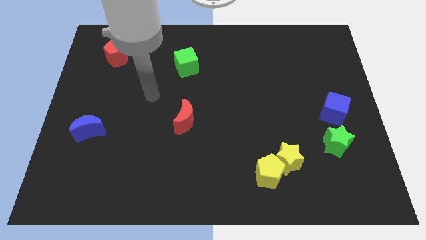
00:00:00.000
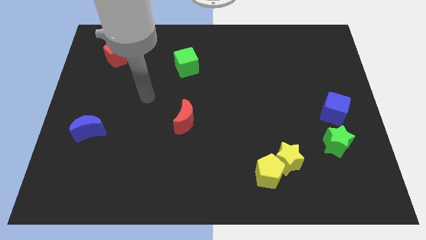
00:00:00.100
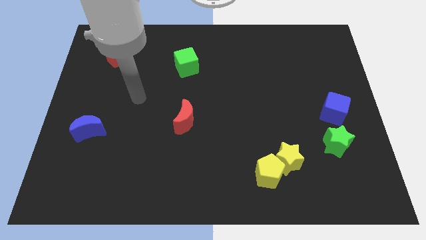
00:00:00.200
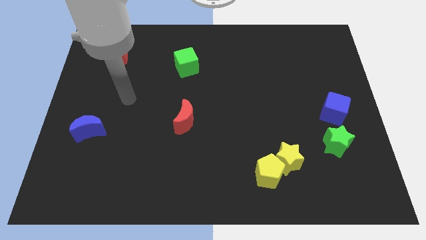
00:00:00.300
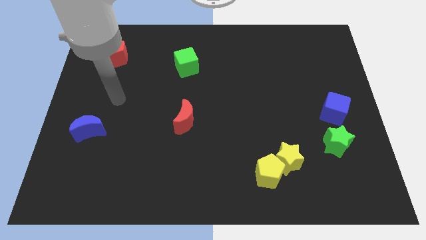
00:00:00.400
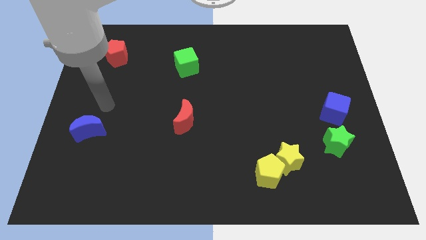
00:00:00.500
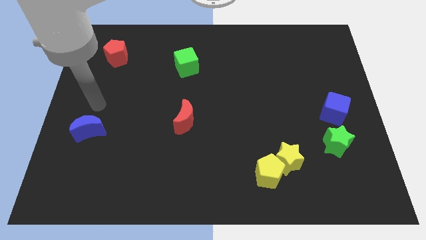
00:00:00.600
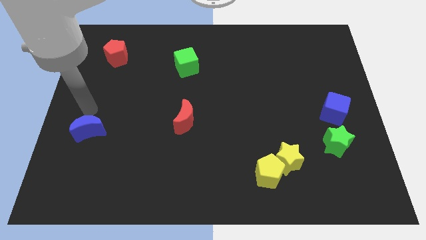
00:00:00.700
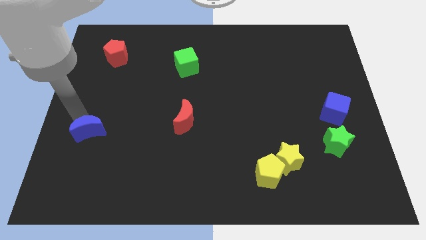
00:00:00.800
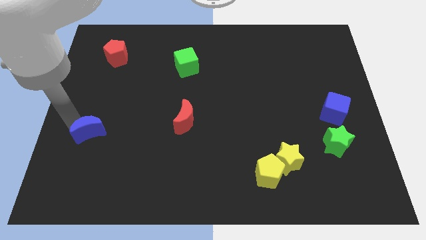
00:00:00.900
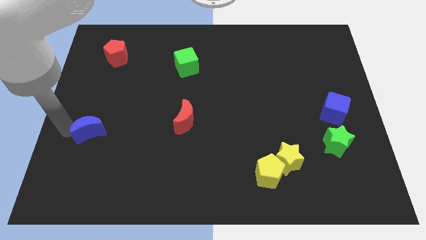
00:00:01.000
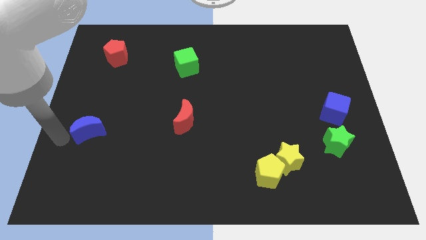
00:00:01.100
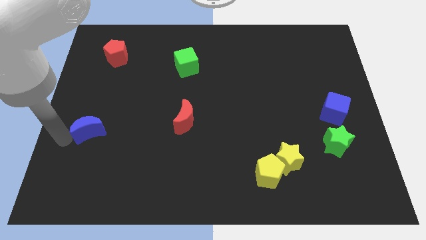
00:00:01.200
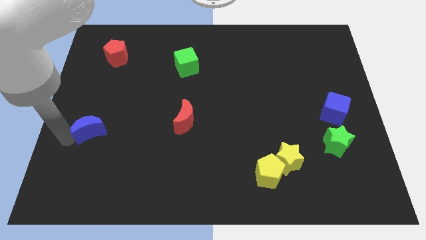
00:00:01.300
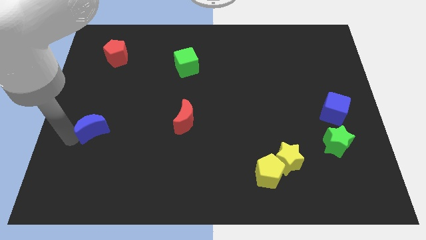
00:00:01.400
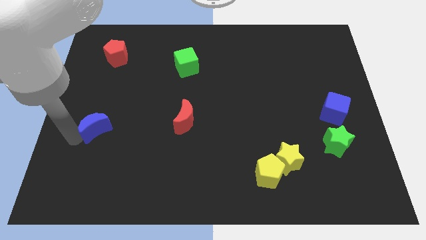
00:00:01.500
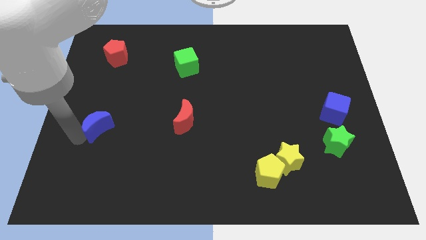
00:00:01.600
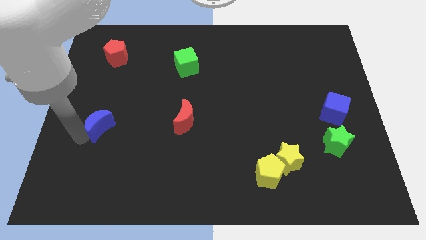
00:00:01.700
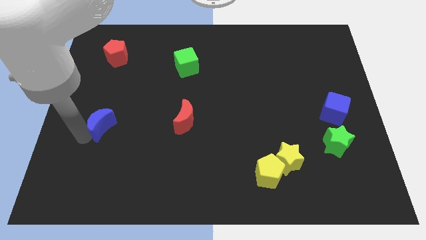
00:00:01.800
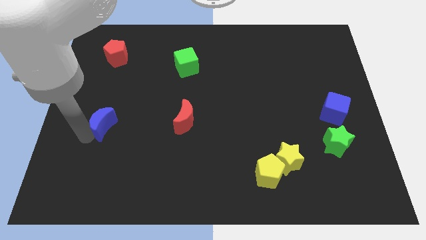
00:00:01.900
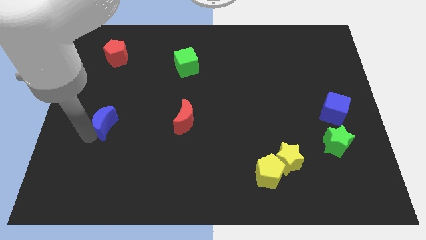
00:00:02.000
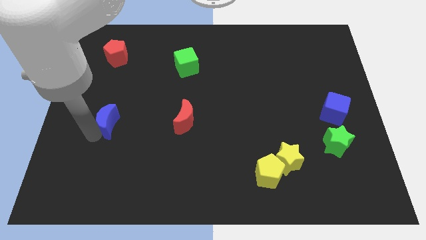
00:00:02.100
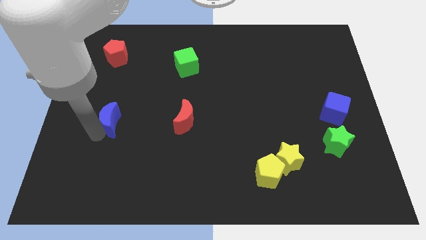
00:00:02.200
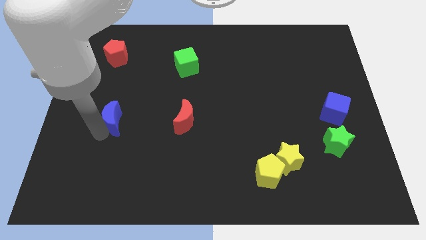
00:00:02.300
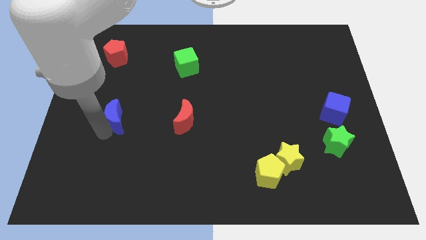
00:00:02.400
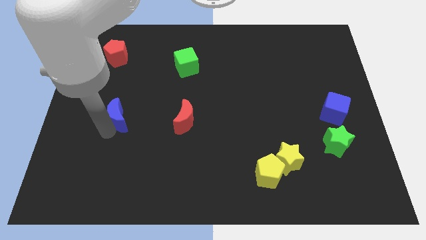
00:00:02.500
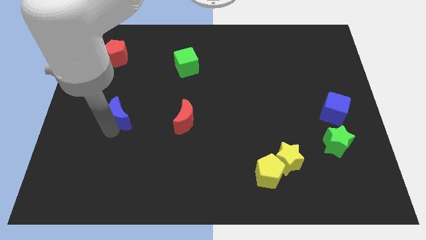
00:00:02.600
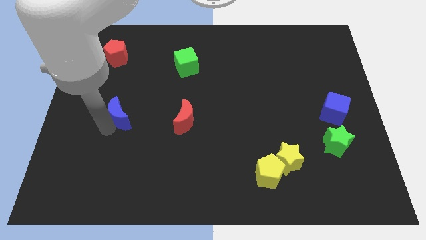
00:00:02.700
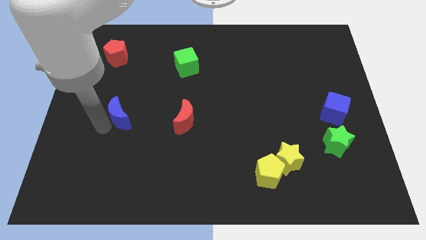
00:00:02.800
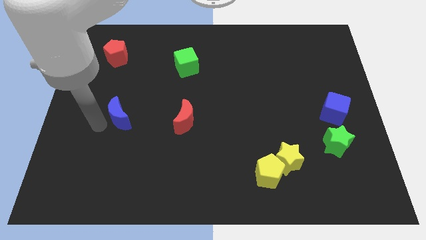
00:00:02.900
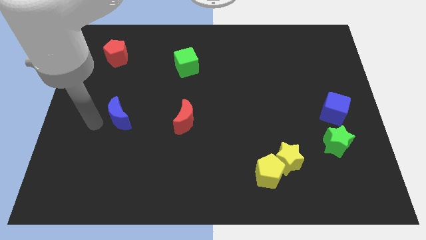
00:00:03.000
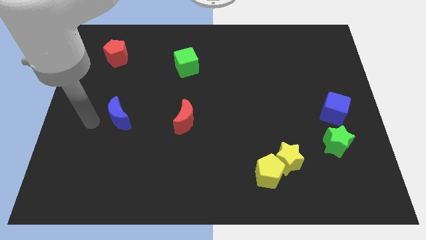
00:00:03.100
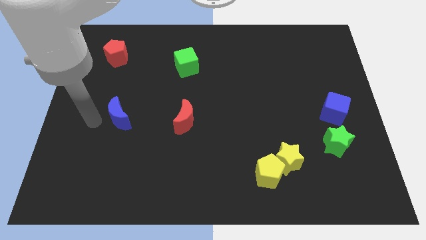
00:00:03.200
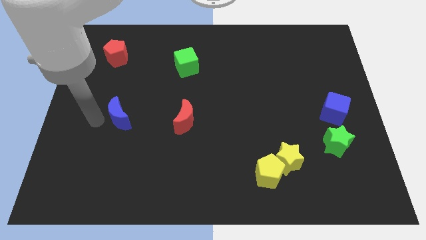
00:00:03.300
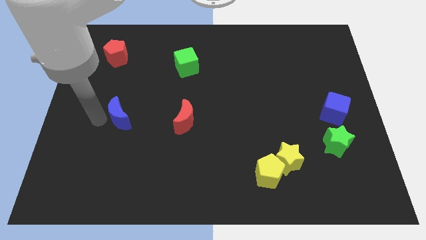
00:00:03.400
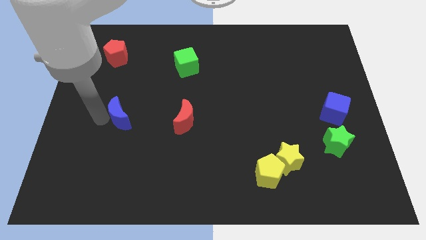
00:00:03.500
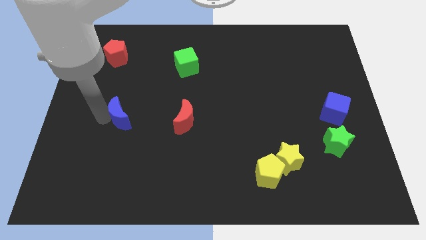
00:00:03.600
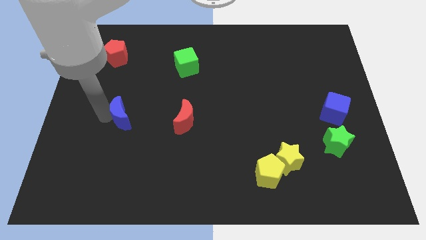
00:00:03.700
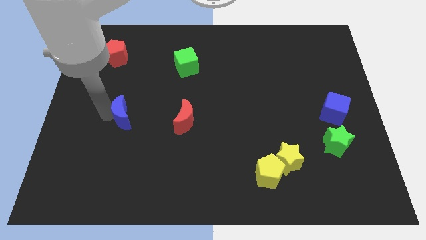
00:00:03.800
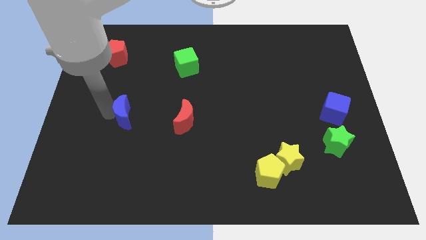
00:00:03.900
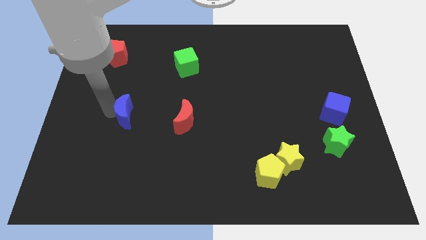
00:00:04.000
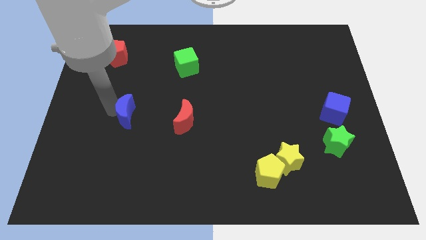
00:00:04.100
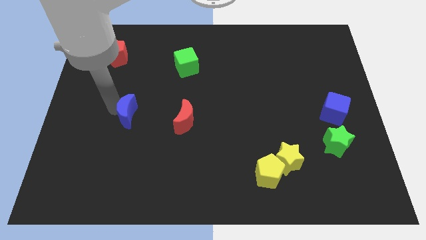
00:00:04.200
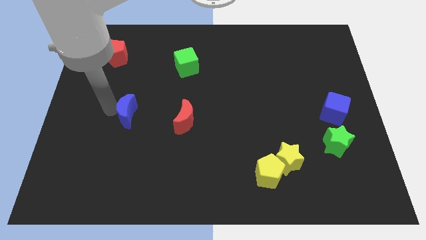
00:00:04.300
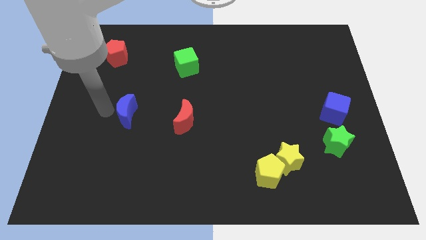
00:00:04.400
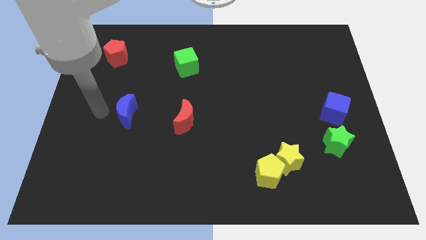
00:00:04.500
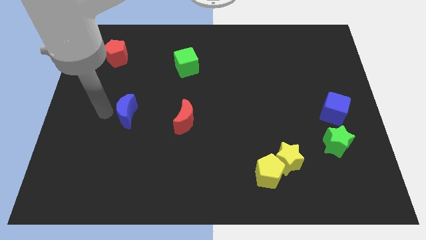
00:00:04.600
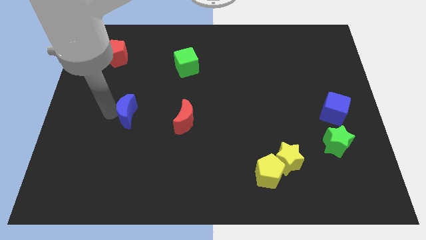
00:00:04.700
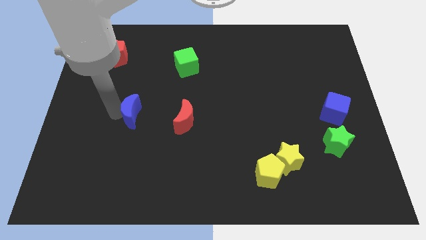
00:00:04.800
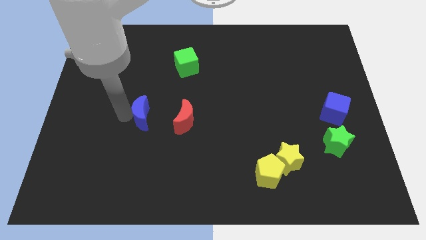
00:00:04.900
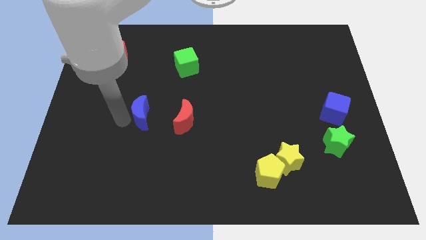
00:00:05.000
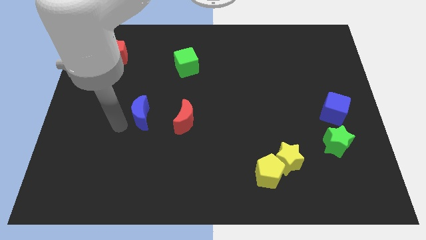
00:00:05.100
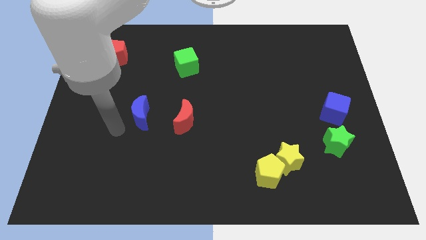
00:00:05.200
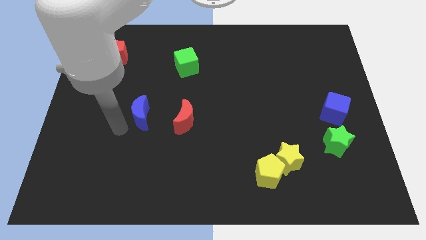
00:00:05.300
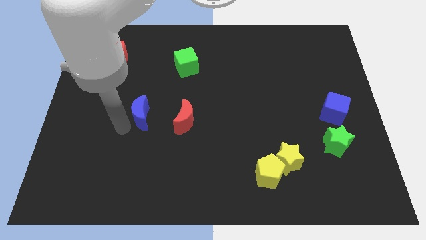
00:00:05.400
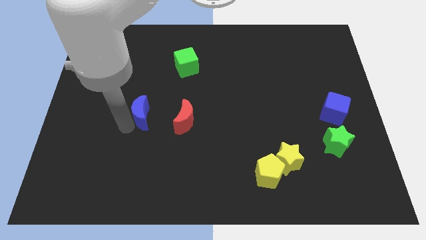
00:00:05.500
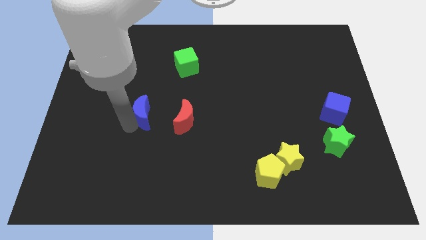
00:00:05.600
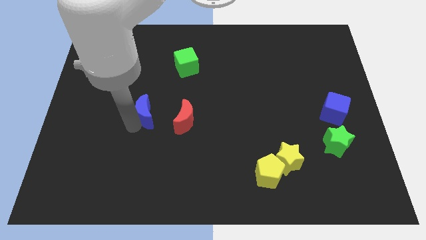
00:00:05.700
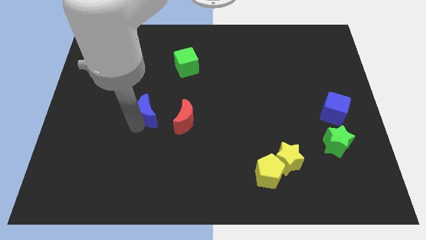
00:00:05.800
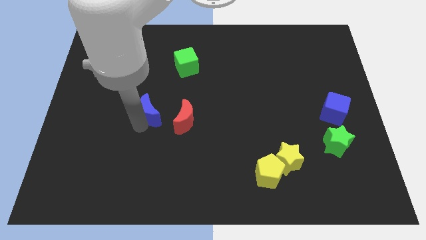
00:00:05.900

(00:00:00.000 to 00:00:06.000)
slide the blue moon to the top left side of the red moon

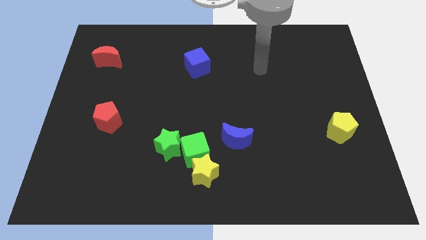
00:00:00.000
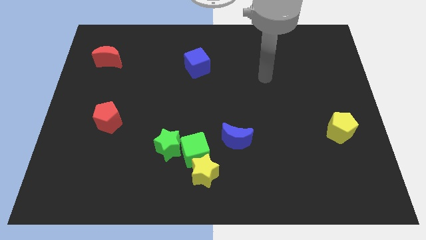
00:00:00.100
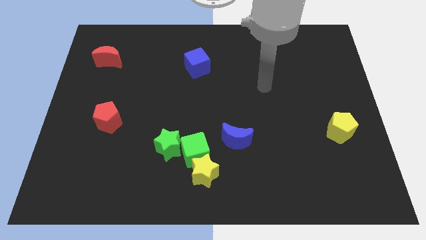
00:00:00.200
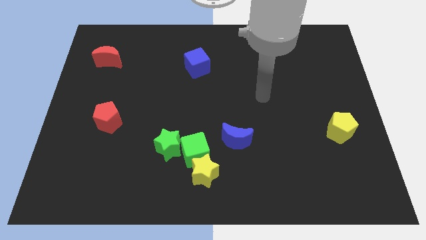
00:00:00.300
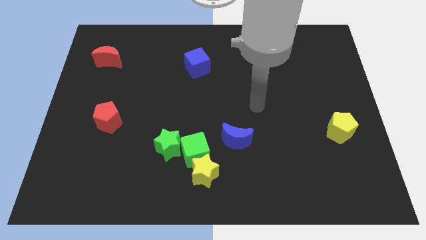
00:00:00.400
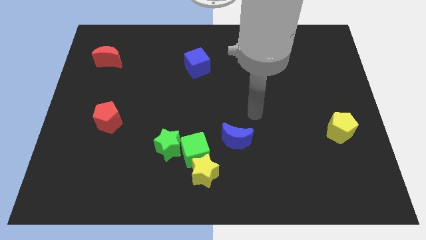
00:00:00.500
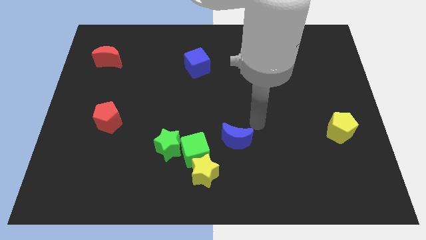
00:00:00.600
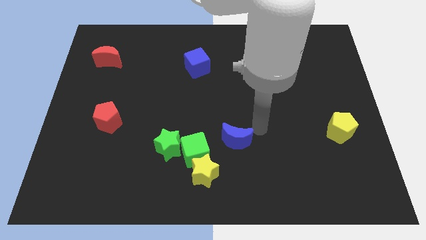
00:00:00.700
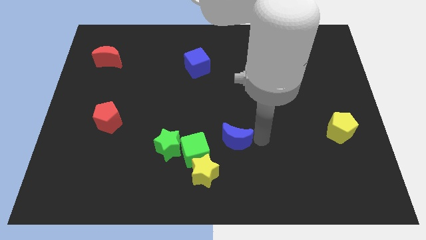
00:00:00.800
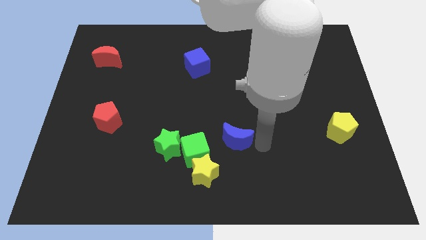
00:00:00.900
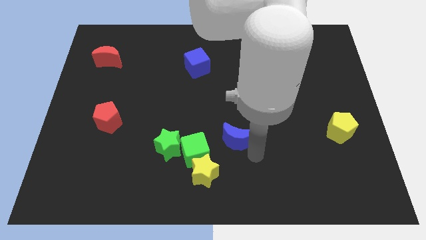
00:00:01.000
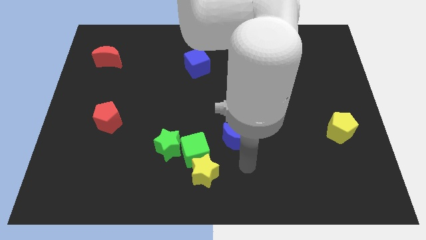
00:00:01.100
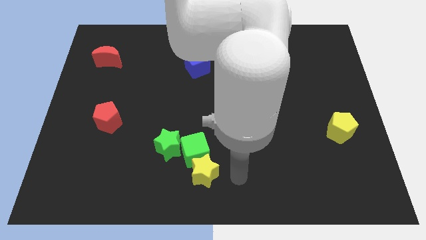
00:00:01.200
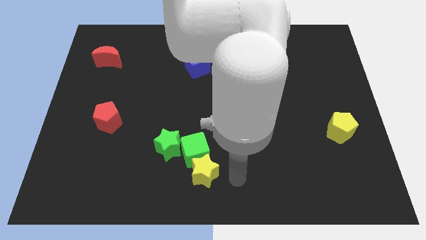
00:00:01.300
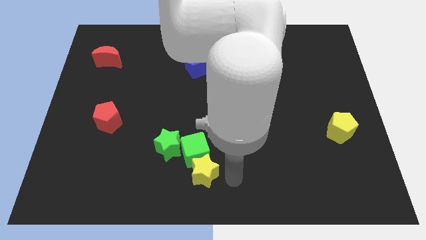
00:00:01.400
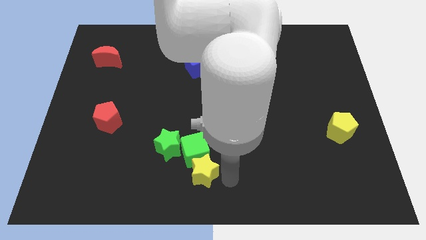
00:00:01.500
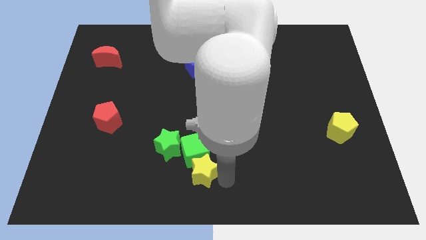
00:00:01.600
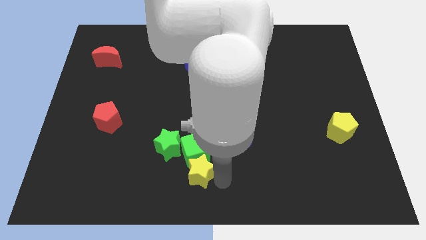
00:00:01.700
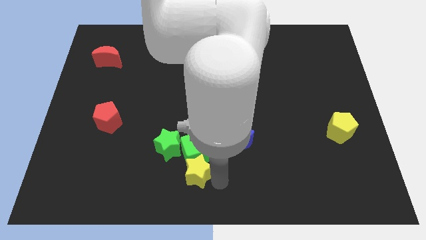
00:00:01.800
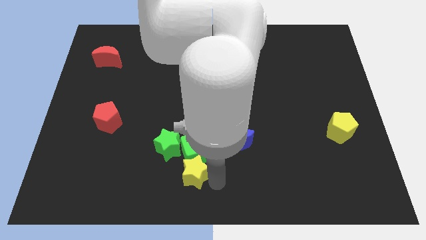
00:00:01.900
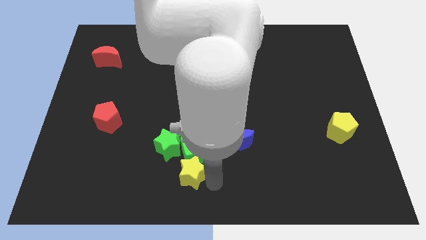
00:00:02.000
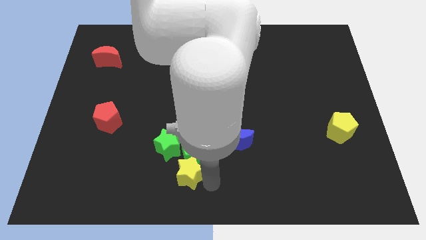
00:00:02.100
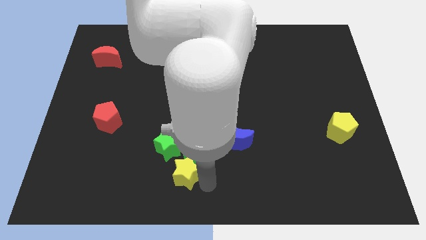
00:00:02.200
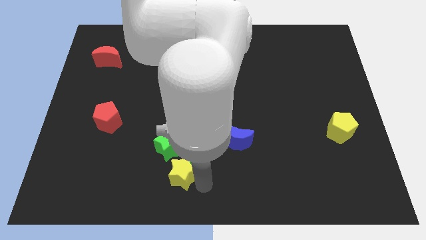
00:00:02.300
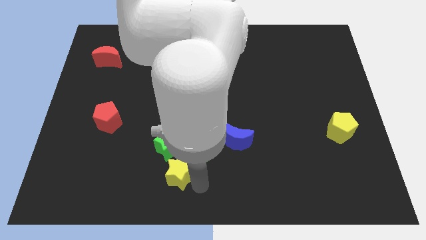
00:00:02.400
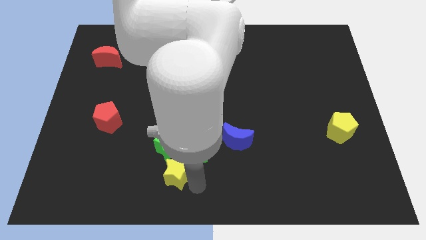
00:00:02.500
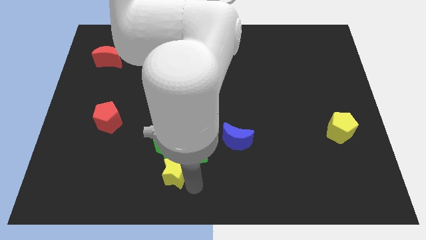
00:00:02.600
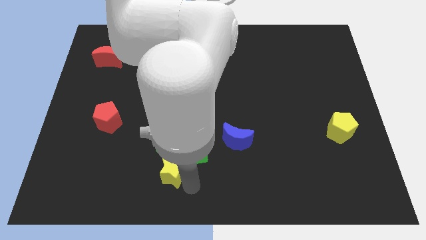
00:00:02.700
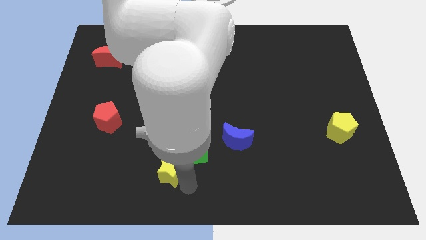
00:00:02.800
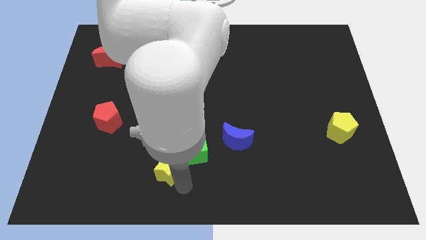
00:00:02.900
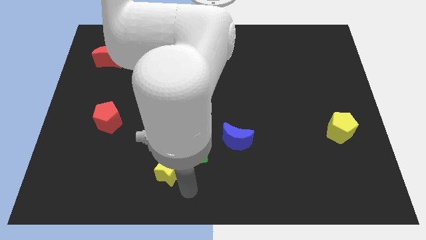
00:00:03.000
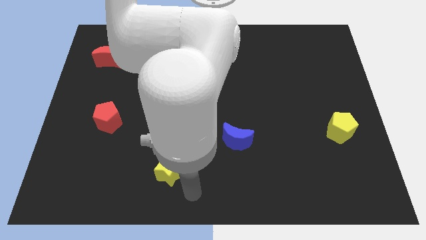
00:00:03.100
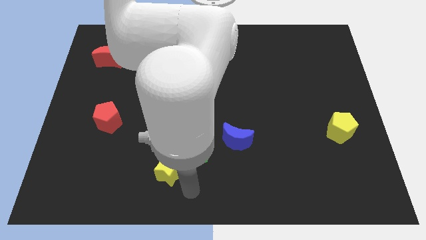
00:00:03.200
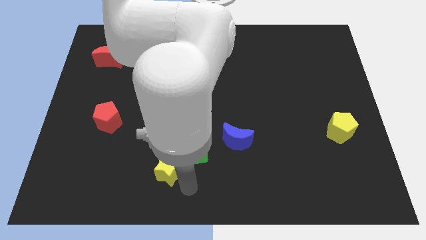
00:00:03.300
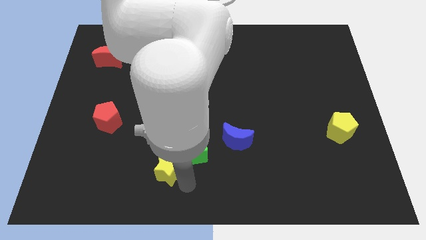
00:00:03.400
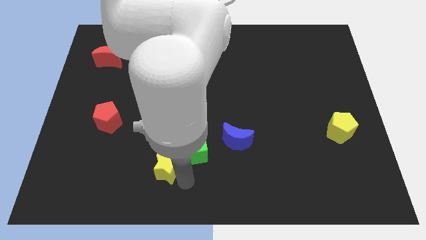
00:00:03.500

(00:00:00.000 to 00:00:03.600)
push the yellow star just left of the green cube
